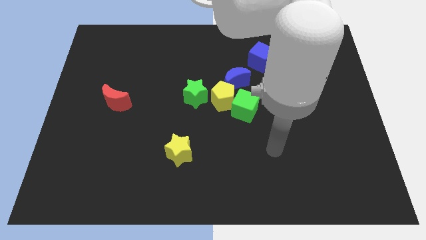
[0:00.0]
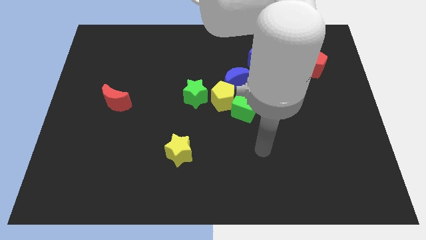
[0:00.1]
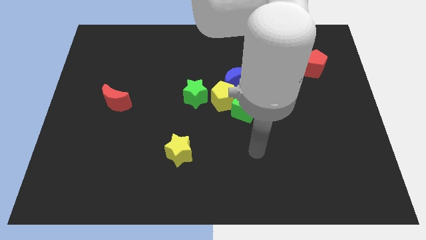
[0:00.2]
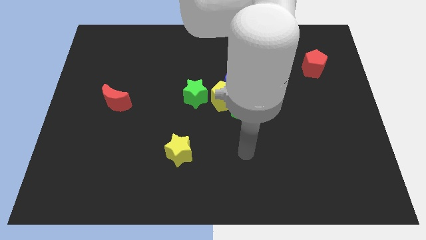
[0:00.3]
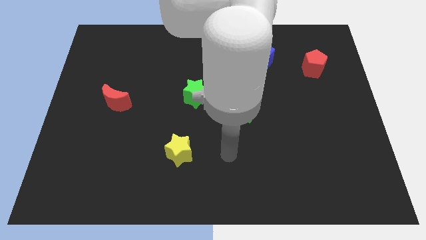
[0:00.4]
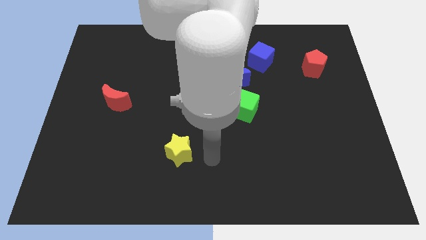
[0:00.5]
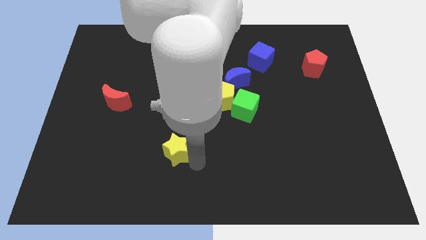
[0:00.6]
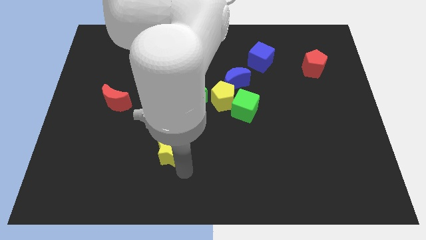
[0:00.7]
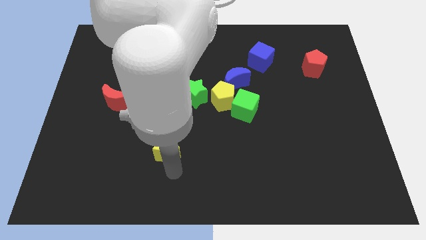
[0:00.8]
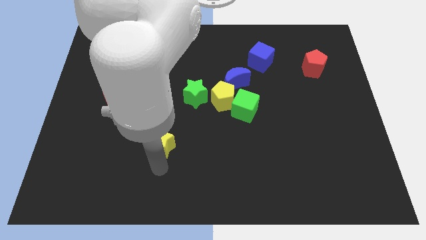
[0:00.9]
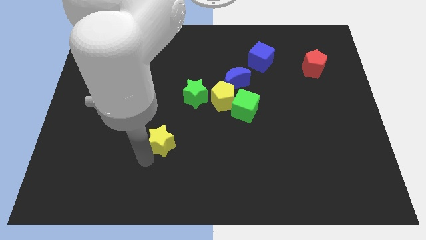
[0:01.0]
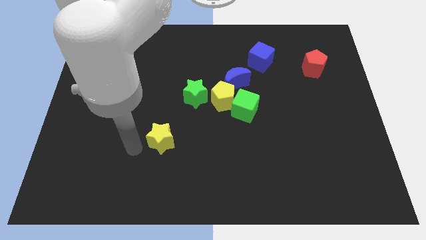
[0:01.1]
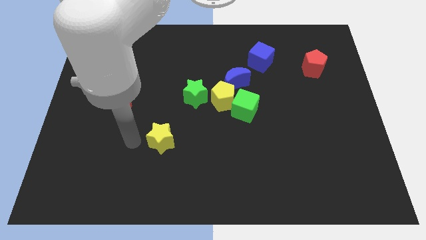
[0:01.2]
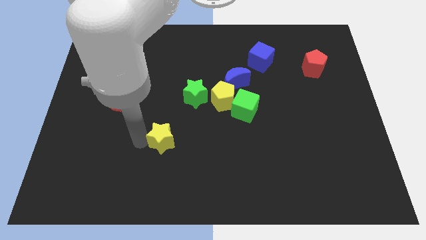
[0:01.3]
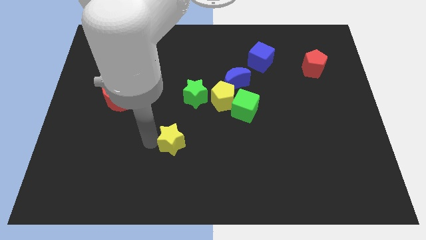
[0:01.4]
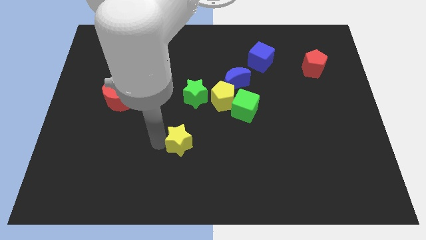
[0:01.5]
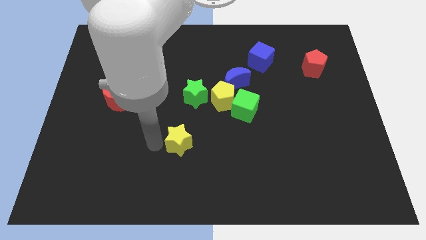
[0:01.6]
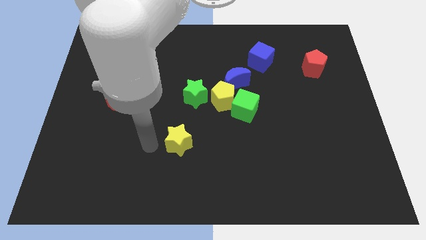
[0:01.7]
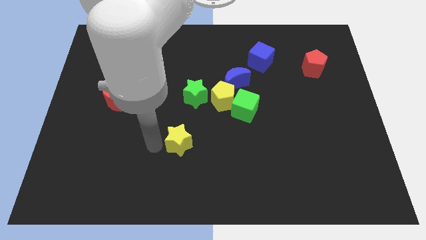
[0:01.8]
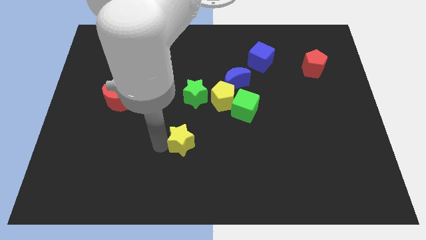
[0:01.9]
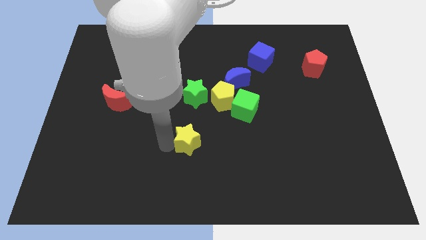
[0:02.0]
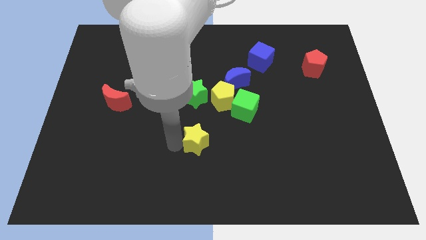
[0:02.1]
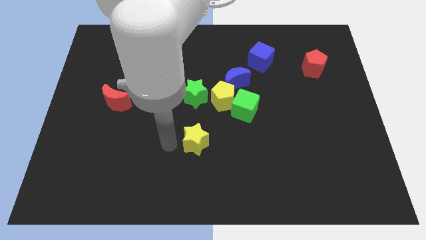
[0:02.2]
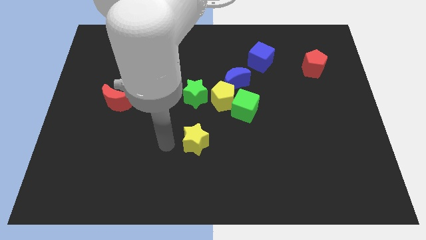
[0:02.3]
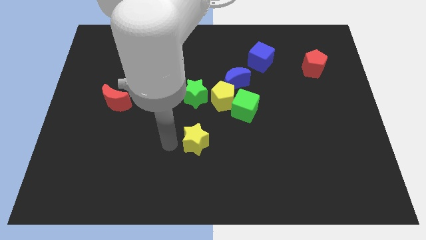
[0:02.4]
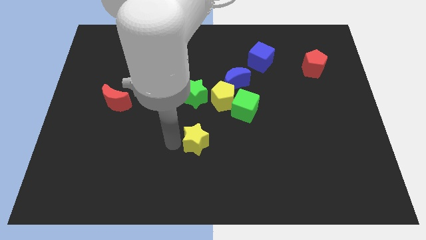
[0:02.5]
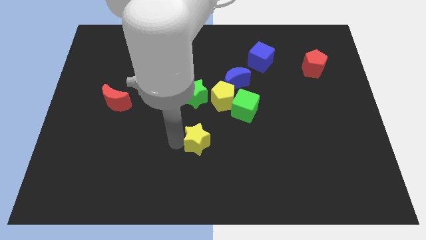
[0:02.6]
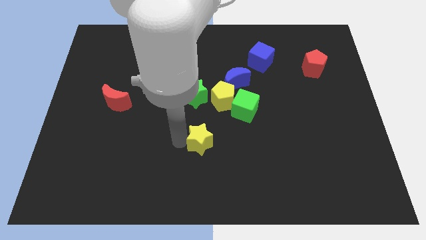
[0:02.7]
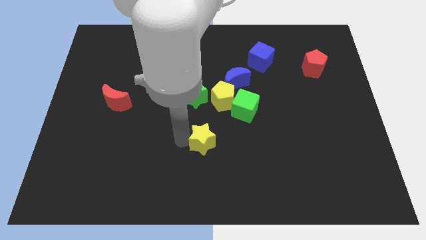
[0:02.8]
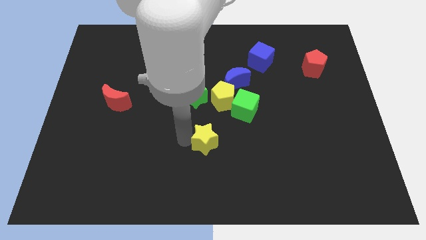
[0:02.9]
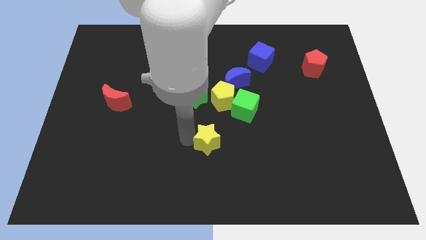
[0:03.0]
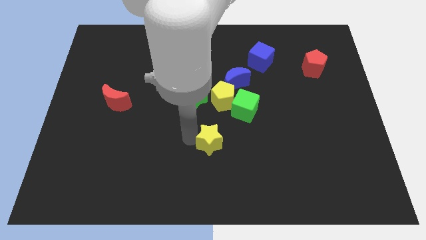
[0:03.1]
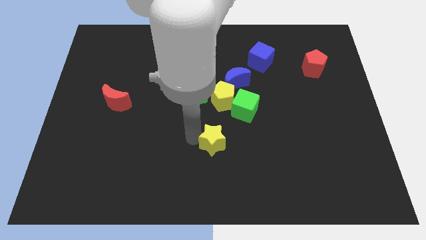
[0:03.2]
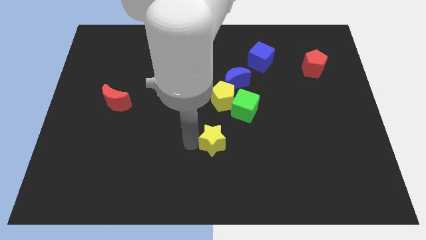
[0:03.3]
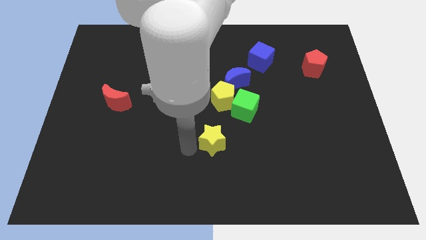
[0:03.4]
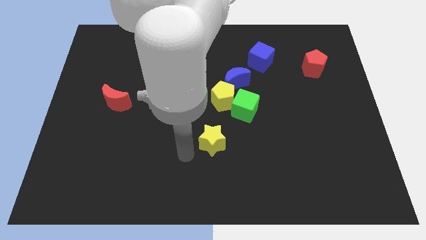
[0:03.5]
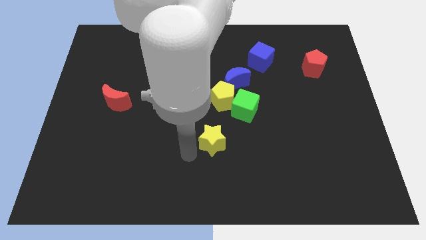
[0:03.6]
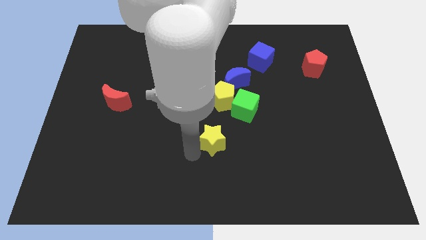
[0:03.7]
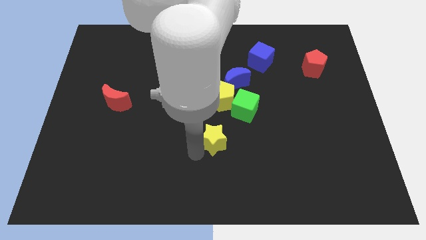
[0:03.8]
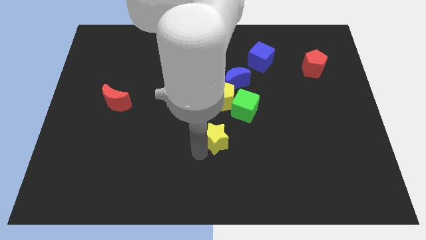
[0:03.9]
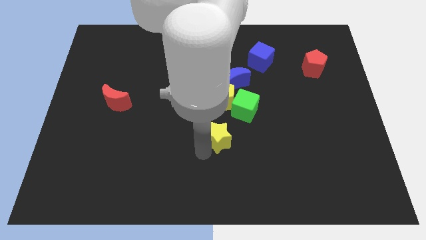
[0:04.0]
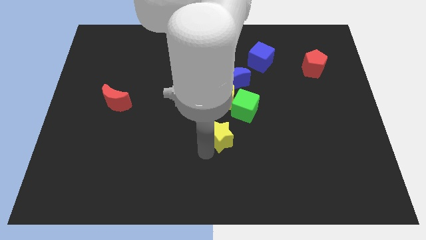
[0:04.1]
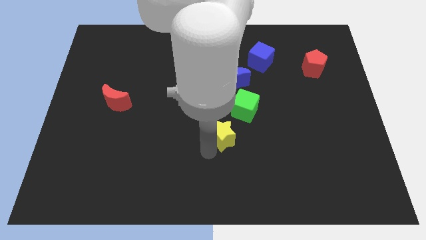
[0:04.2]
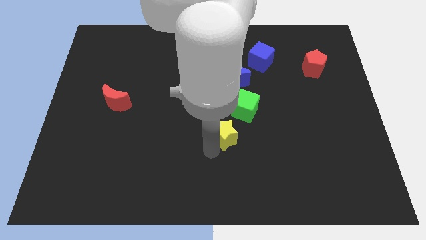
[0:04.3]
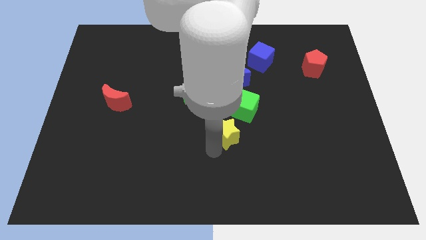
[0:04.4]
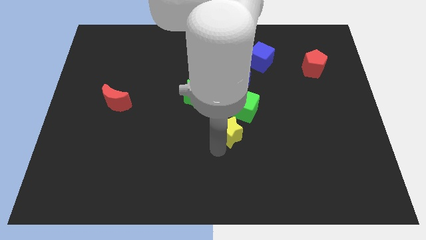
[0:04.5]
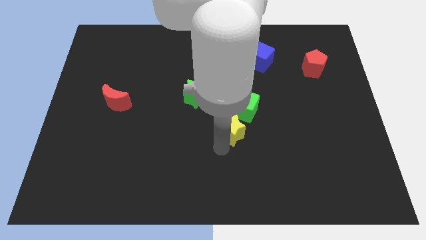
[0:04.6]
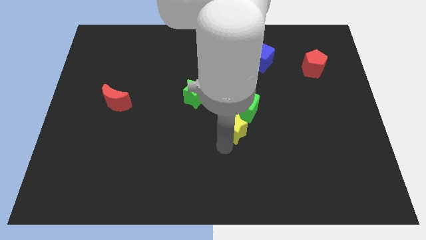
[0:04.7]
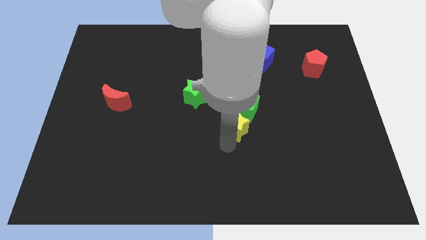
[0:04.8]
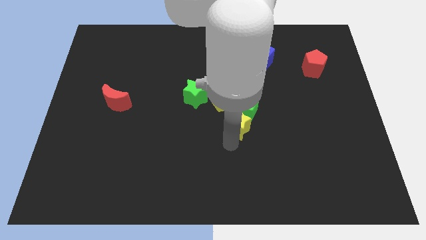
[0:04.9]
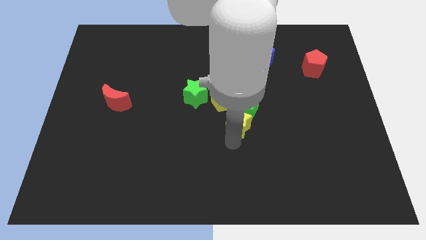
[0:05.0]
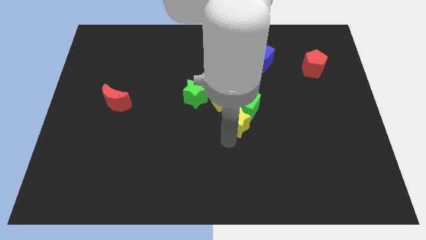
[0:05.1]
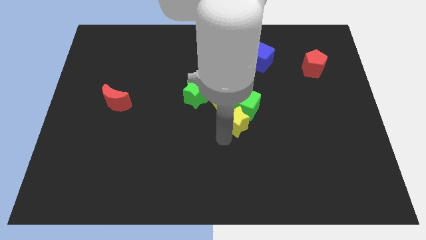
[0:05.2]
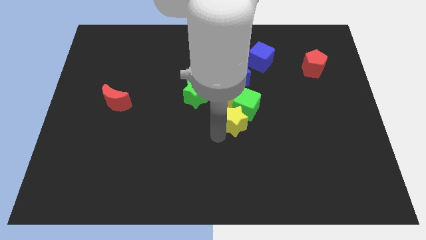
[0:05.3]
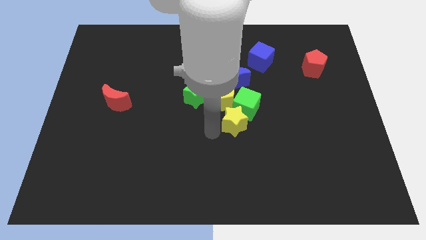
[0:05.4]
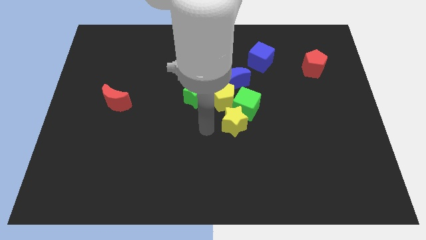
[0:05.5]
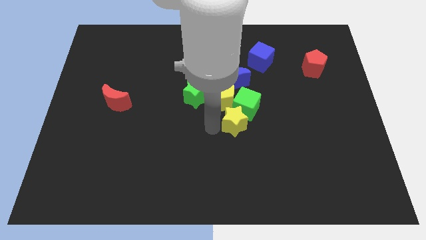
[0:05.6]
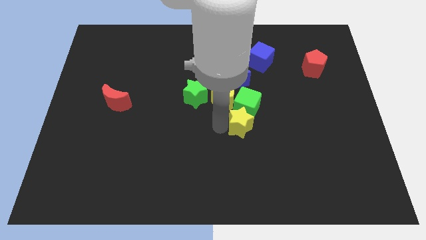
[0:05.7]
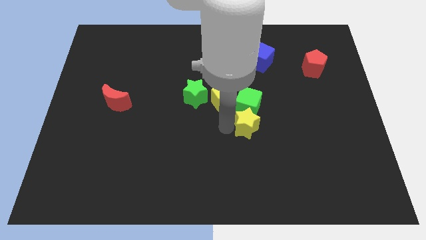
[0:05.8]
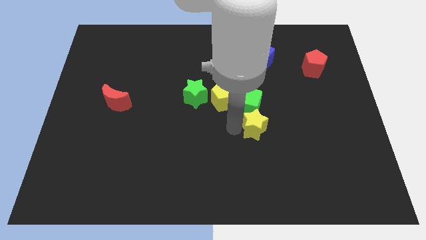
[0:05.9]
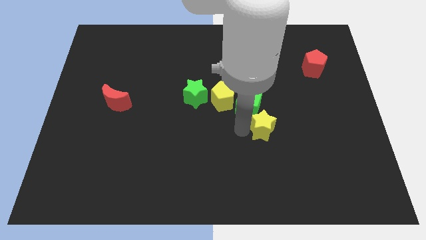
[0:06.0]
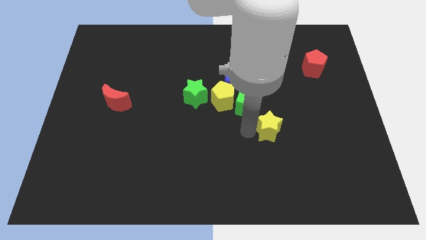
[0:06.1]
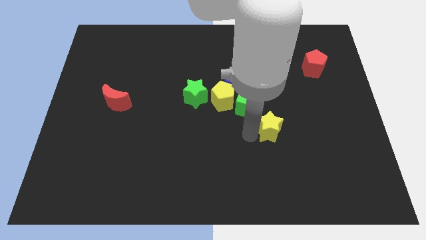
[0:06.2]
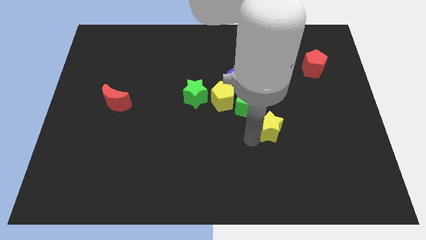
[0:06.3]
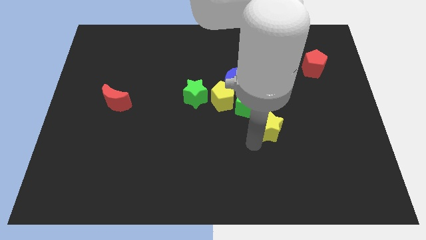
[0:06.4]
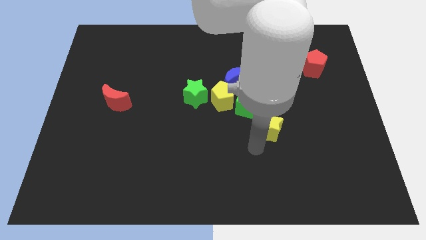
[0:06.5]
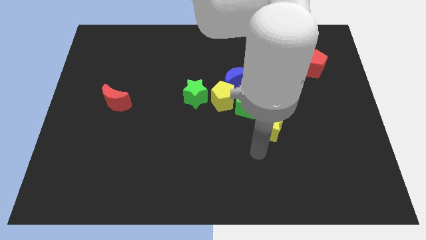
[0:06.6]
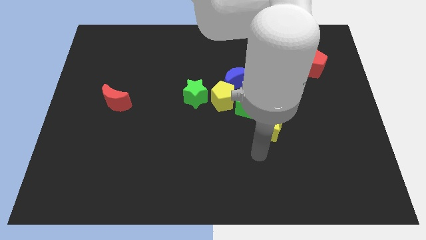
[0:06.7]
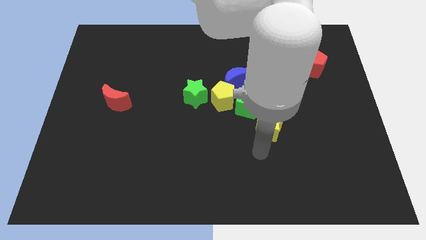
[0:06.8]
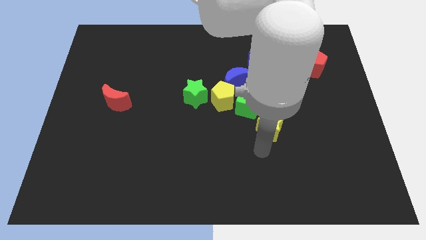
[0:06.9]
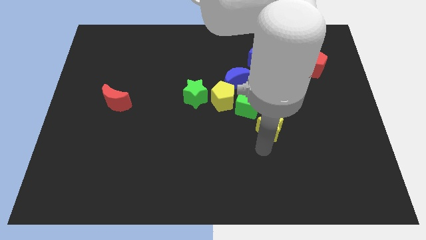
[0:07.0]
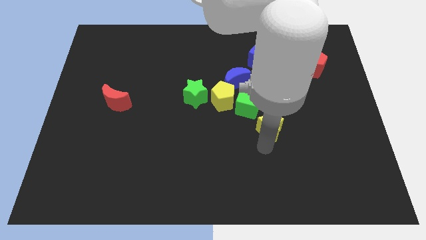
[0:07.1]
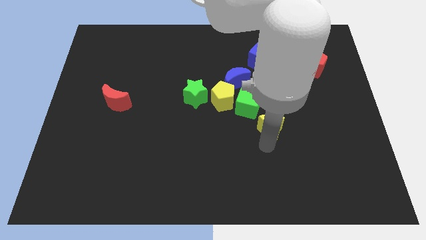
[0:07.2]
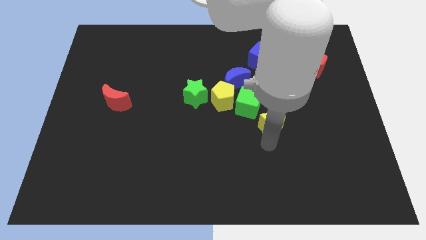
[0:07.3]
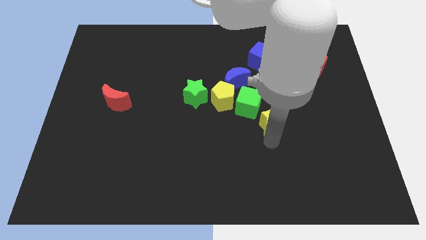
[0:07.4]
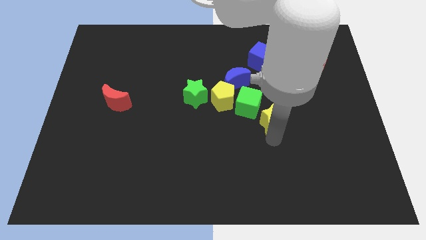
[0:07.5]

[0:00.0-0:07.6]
push the yellow star to the right of the green cube

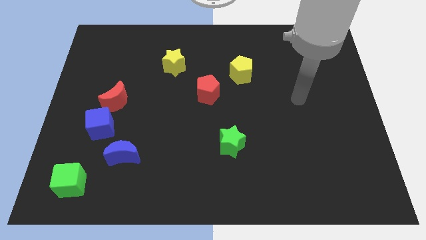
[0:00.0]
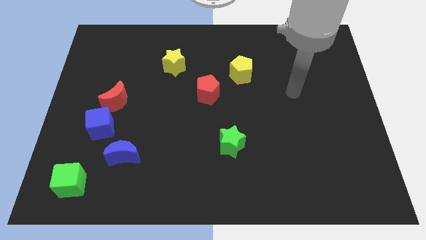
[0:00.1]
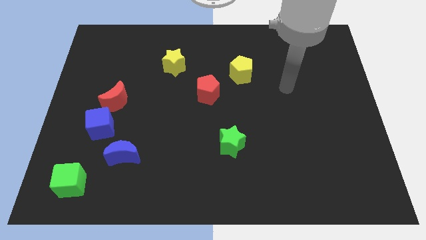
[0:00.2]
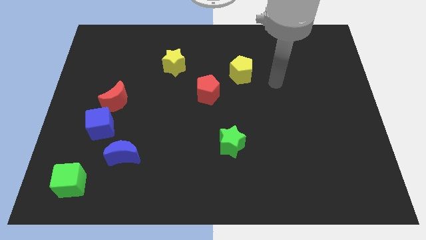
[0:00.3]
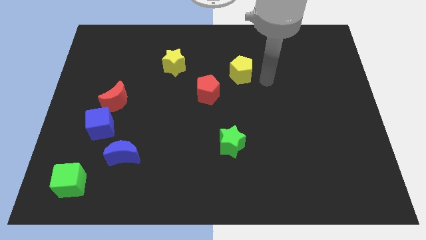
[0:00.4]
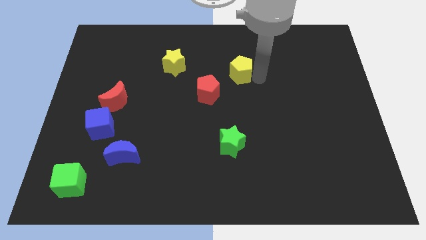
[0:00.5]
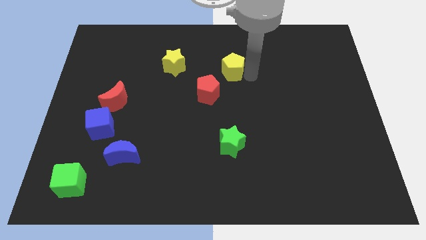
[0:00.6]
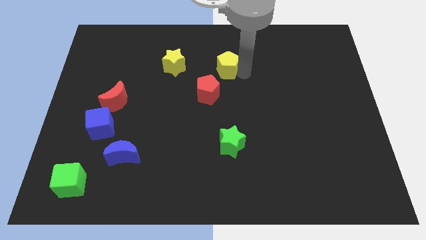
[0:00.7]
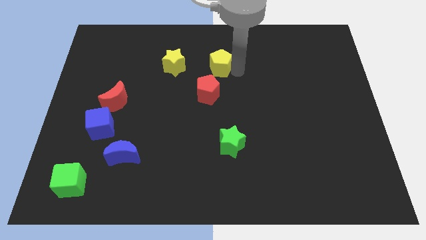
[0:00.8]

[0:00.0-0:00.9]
push the yellow pentagon to the top side of the red pentagon
